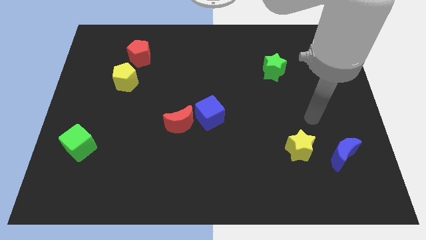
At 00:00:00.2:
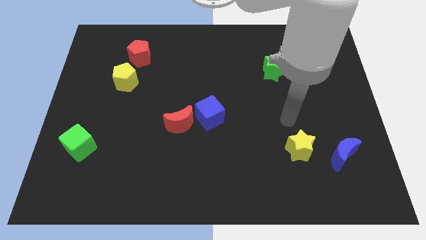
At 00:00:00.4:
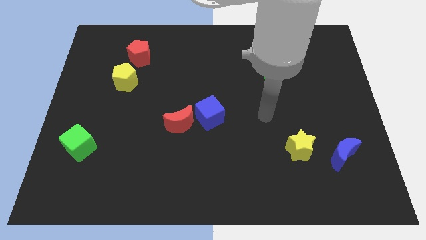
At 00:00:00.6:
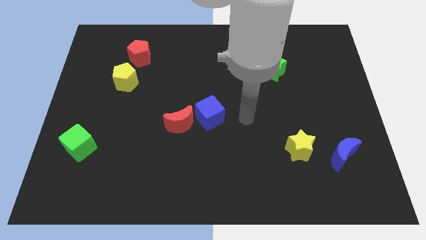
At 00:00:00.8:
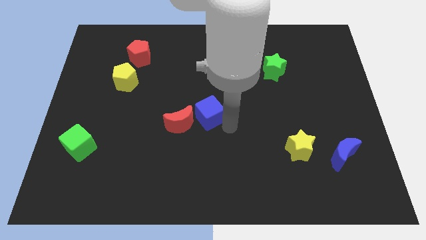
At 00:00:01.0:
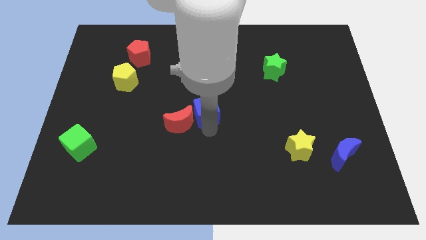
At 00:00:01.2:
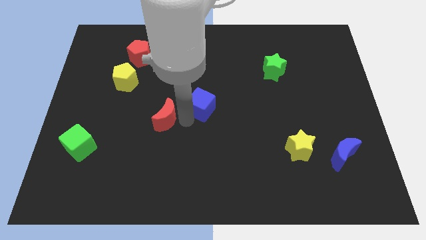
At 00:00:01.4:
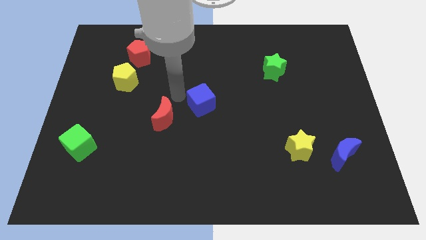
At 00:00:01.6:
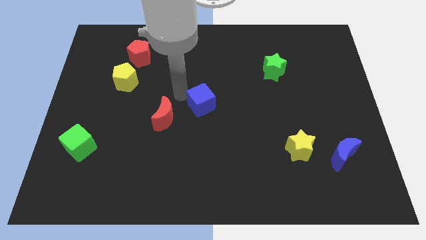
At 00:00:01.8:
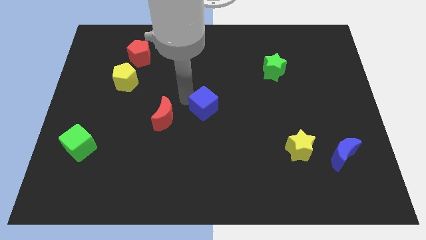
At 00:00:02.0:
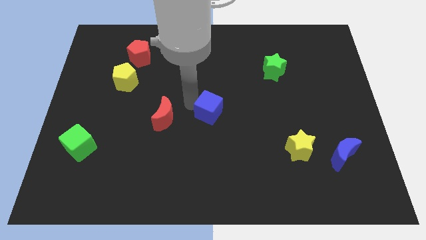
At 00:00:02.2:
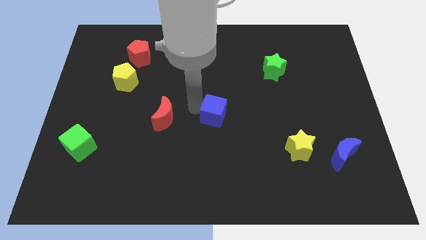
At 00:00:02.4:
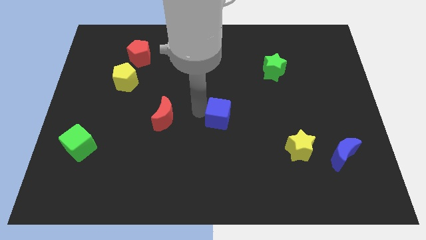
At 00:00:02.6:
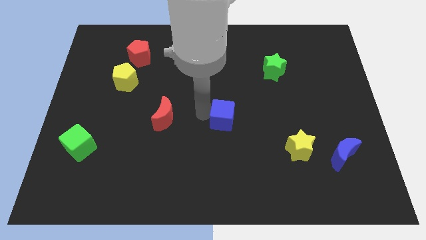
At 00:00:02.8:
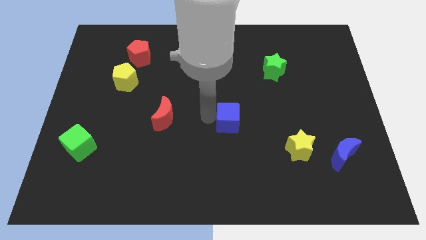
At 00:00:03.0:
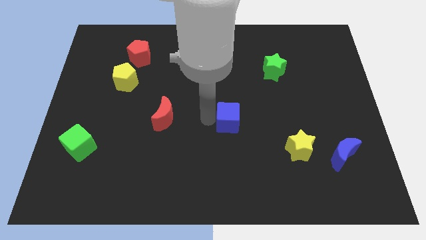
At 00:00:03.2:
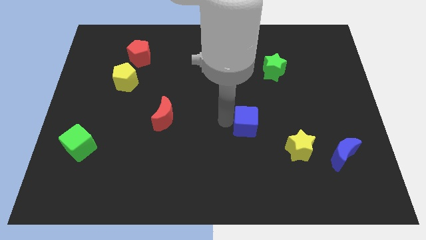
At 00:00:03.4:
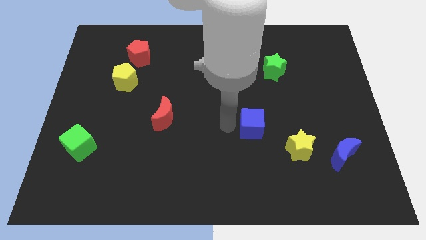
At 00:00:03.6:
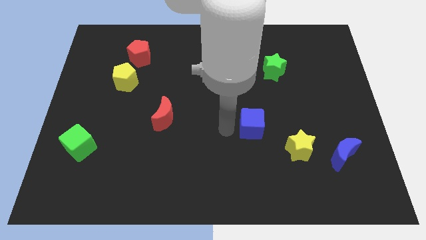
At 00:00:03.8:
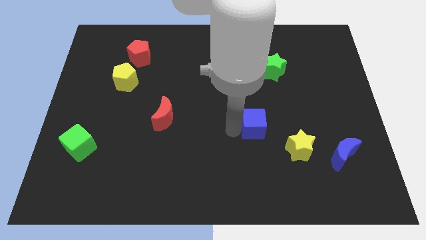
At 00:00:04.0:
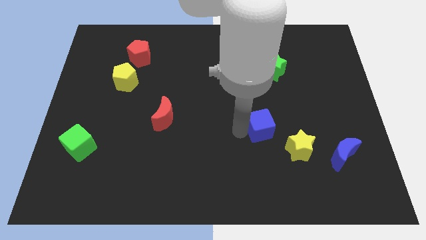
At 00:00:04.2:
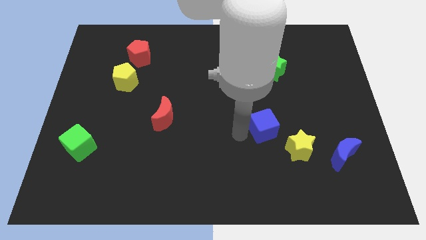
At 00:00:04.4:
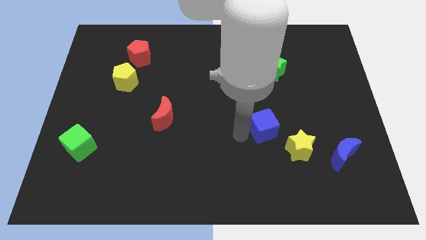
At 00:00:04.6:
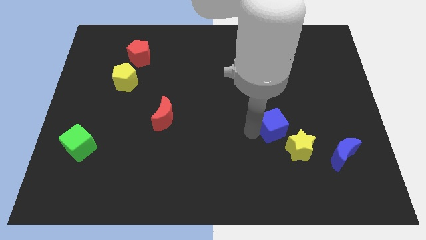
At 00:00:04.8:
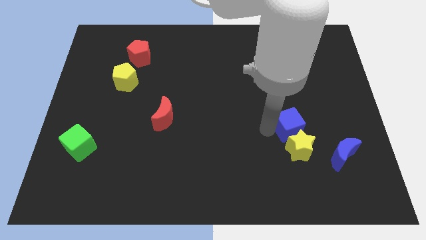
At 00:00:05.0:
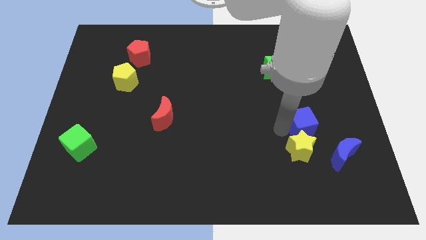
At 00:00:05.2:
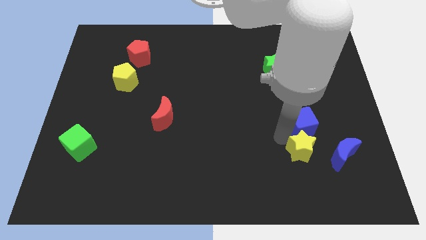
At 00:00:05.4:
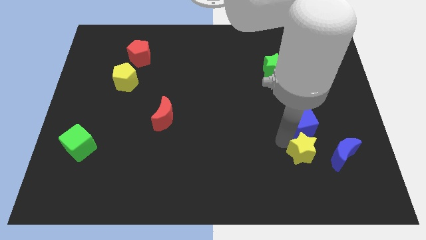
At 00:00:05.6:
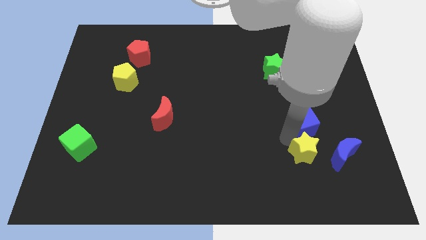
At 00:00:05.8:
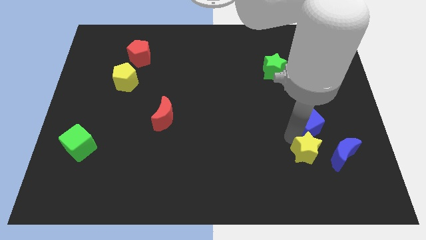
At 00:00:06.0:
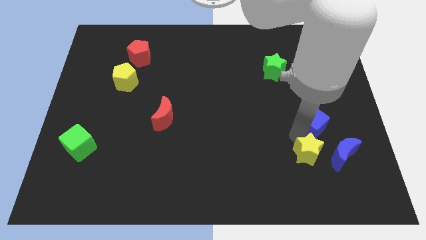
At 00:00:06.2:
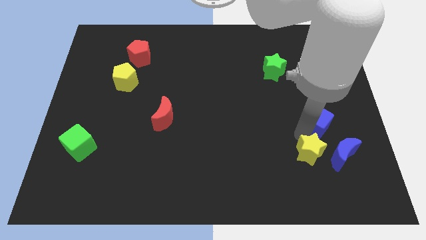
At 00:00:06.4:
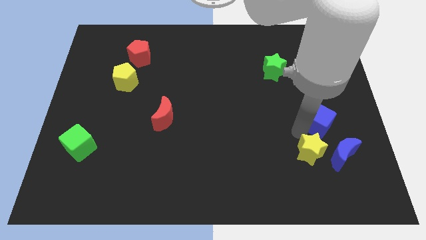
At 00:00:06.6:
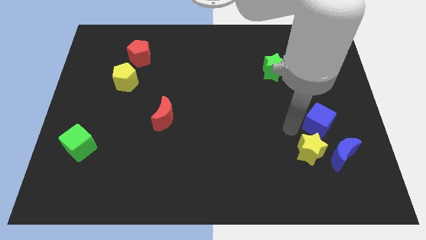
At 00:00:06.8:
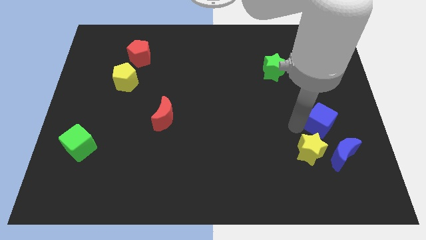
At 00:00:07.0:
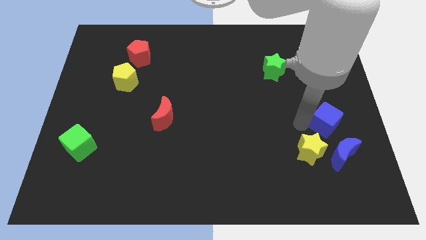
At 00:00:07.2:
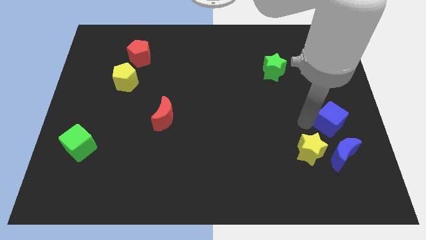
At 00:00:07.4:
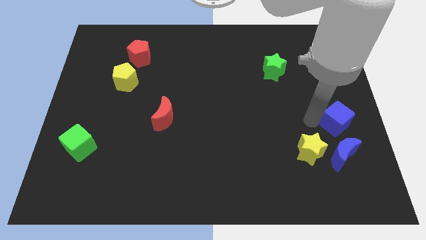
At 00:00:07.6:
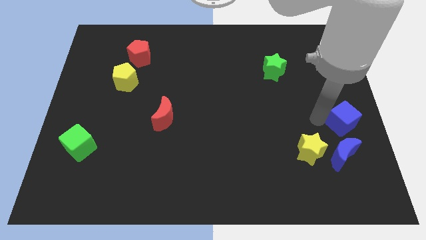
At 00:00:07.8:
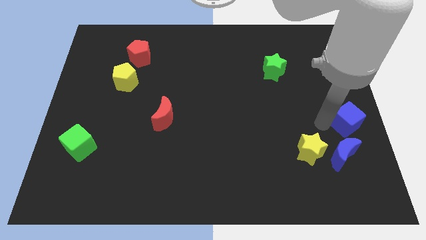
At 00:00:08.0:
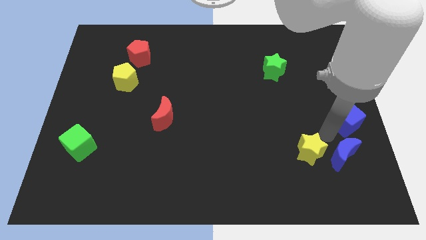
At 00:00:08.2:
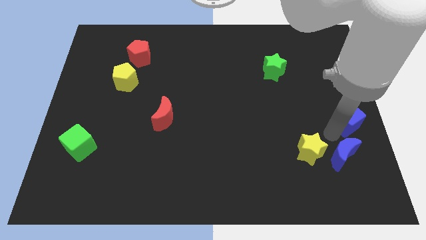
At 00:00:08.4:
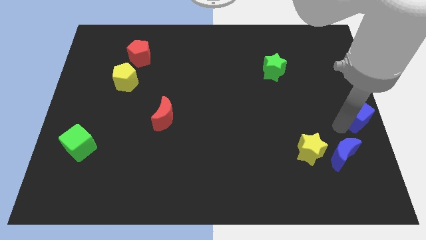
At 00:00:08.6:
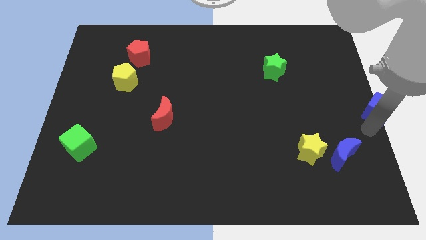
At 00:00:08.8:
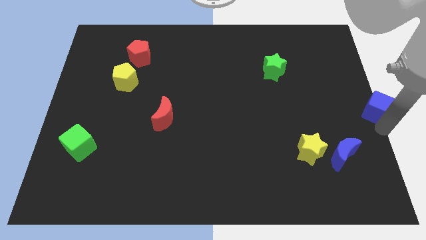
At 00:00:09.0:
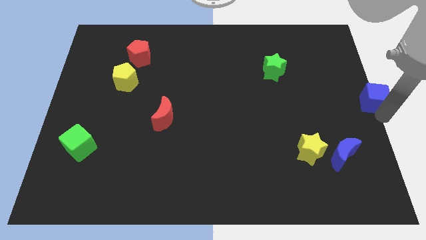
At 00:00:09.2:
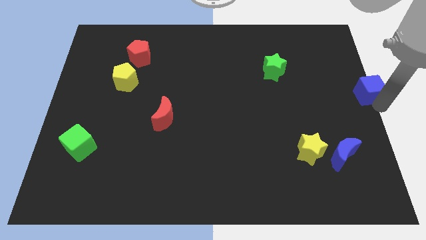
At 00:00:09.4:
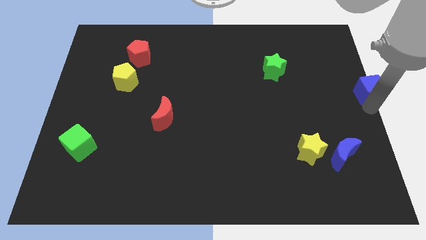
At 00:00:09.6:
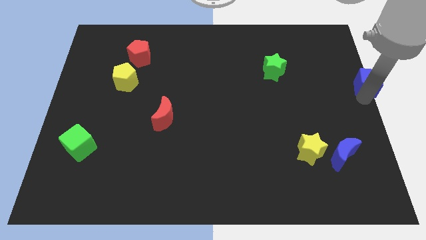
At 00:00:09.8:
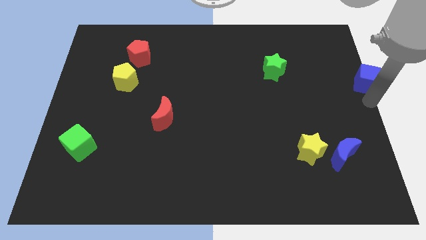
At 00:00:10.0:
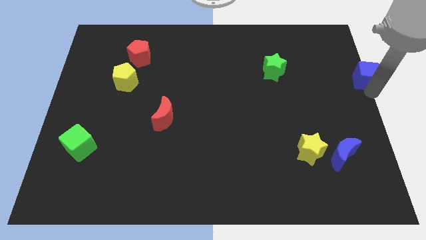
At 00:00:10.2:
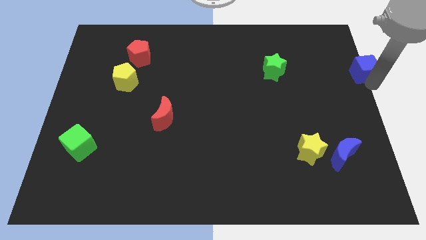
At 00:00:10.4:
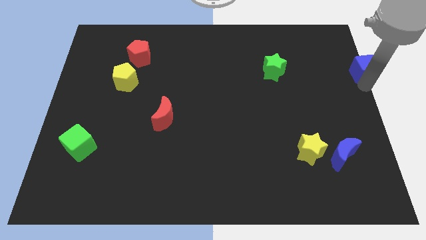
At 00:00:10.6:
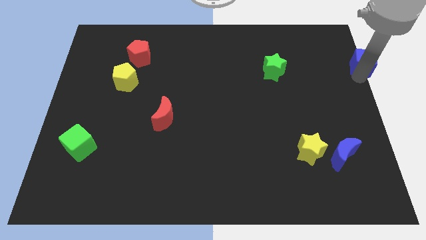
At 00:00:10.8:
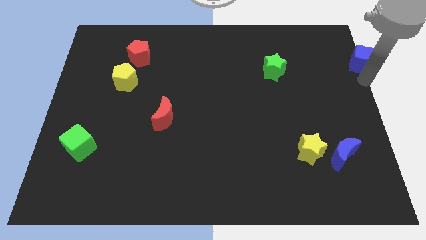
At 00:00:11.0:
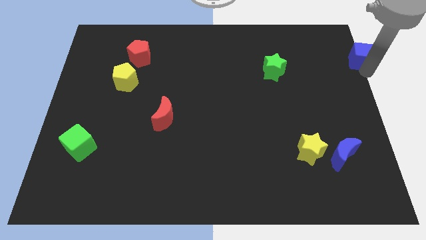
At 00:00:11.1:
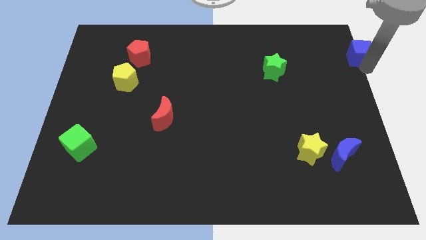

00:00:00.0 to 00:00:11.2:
move the blue cube to the top right
